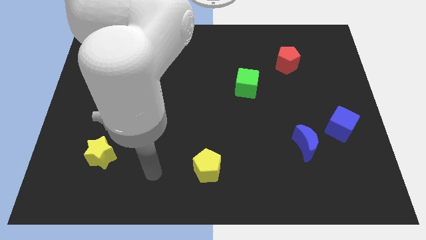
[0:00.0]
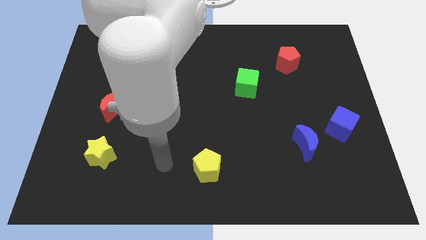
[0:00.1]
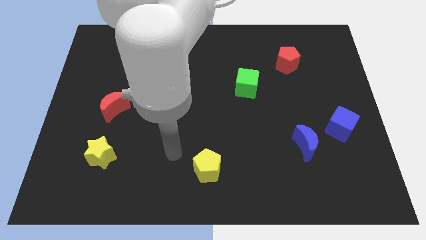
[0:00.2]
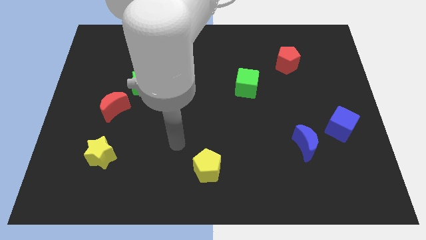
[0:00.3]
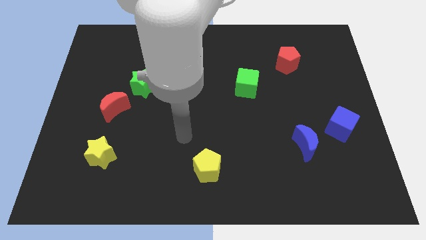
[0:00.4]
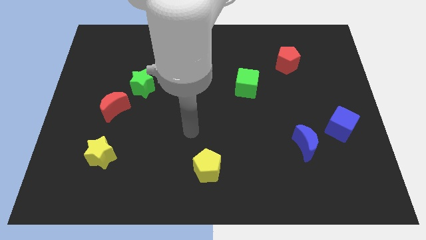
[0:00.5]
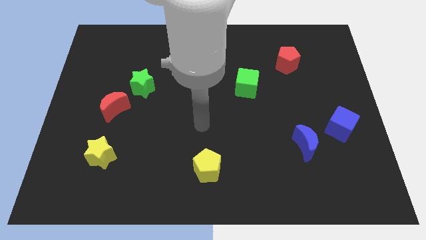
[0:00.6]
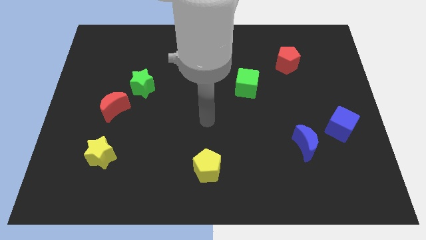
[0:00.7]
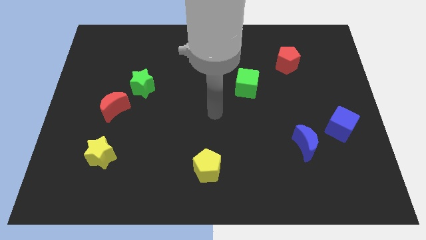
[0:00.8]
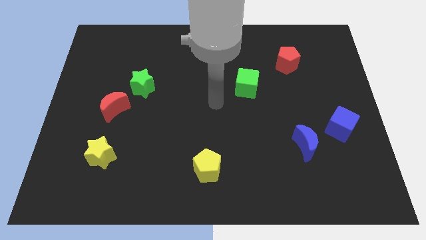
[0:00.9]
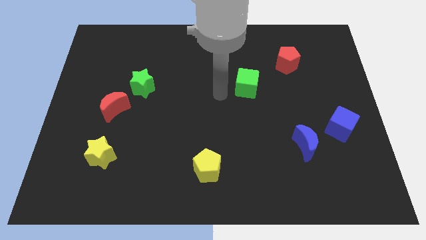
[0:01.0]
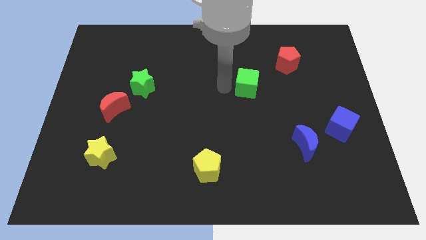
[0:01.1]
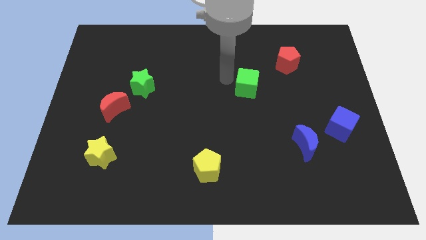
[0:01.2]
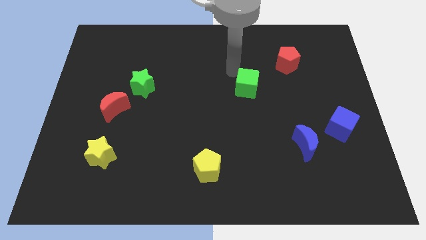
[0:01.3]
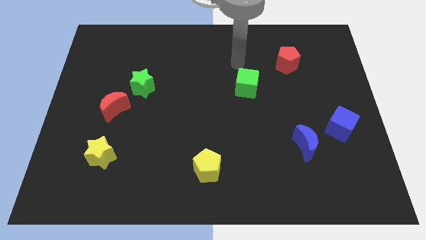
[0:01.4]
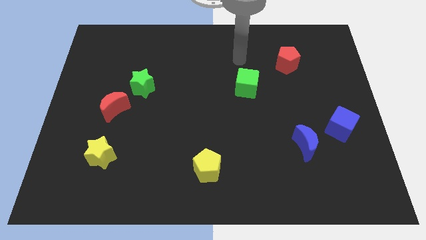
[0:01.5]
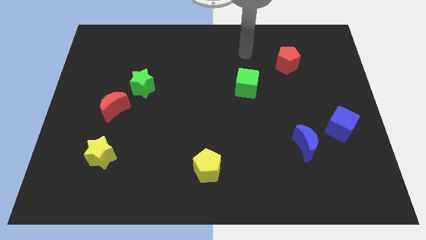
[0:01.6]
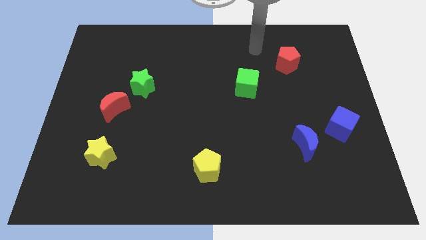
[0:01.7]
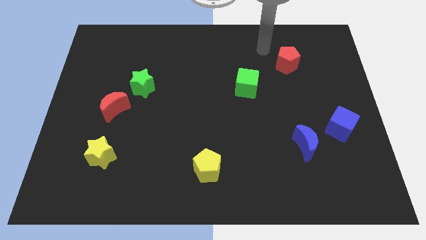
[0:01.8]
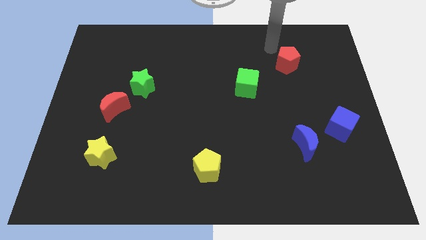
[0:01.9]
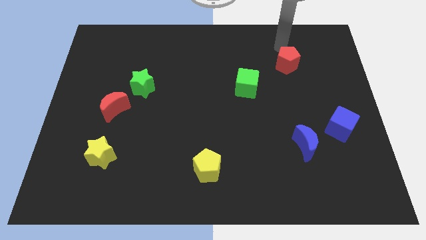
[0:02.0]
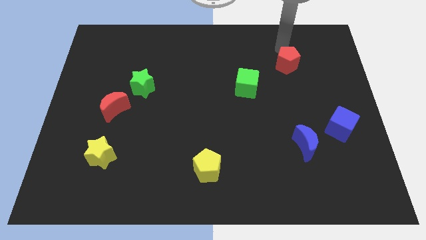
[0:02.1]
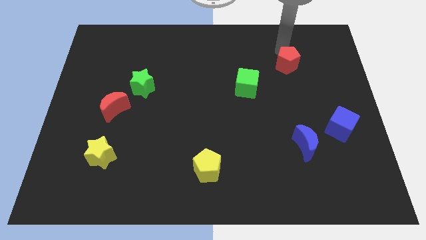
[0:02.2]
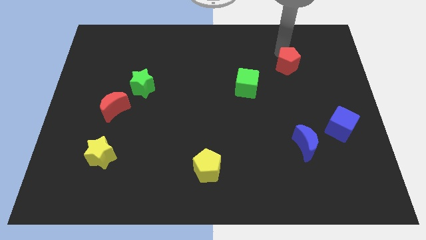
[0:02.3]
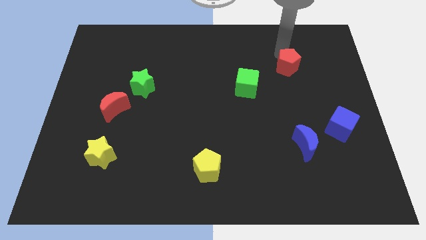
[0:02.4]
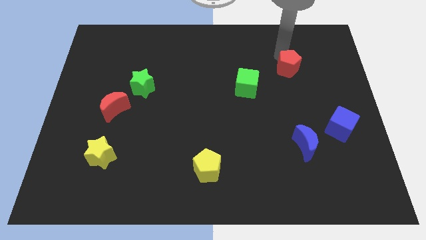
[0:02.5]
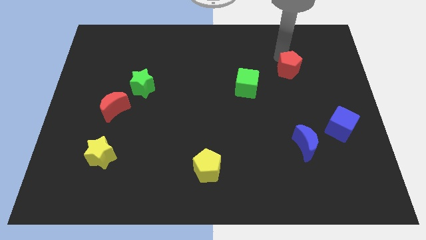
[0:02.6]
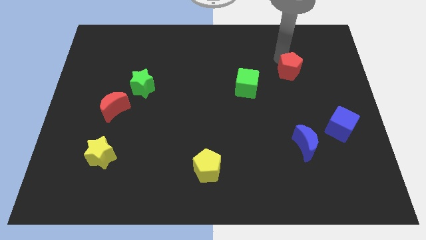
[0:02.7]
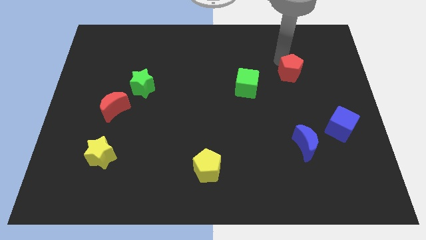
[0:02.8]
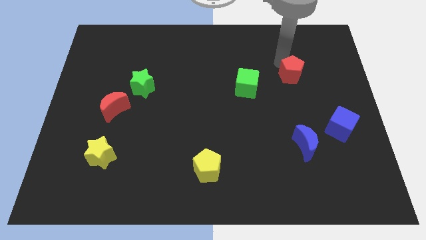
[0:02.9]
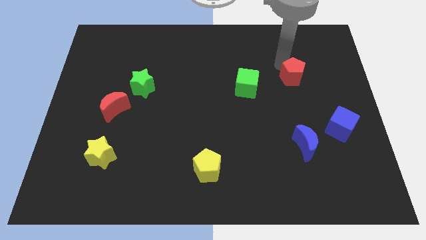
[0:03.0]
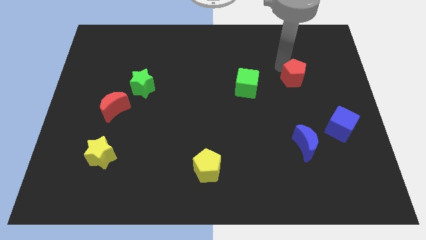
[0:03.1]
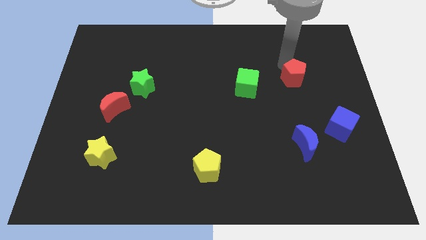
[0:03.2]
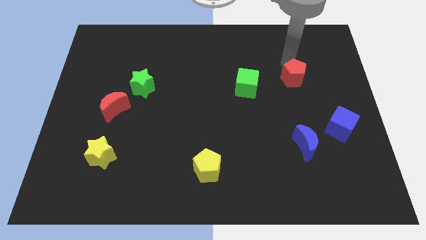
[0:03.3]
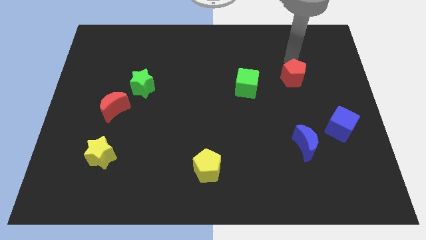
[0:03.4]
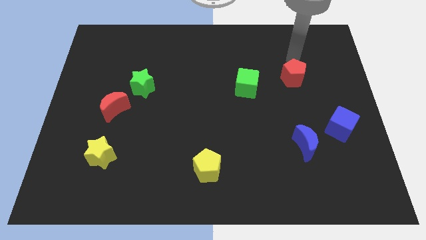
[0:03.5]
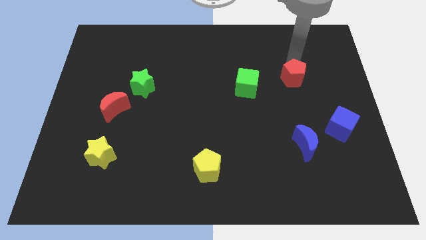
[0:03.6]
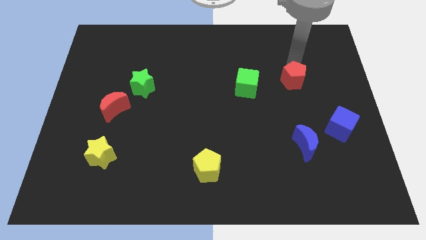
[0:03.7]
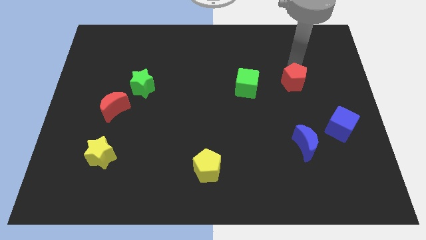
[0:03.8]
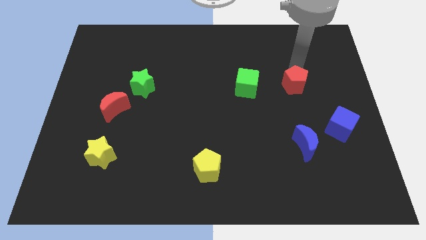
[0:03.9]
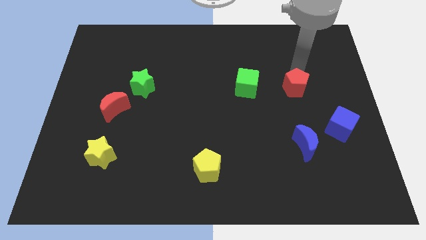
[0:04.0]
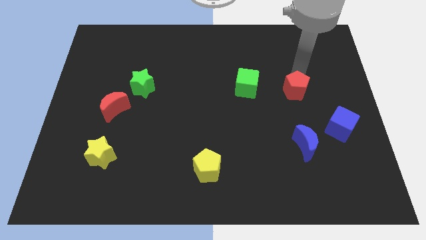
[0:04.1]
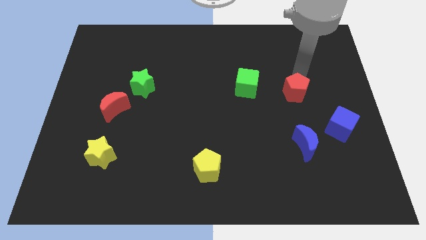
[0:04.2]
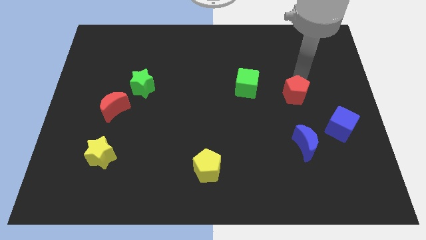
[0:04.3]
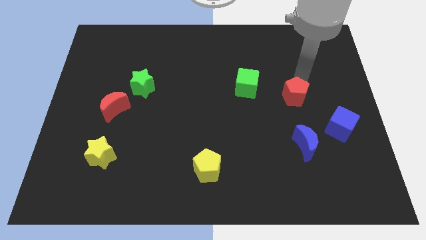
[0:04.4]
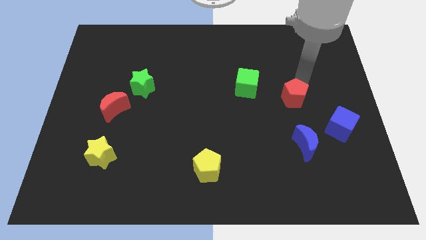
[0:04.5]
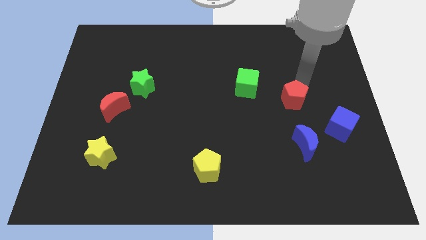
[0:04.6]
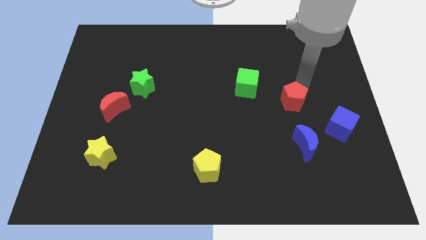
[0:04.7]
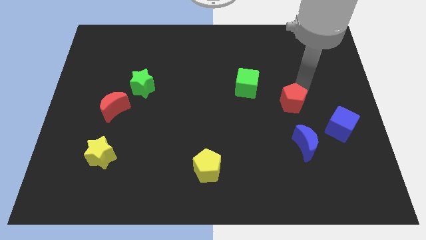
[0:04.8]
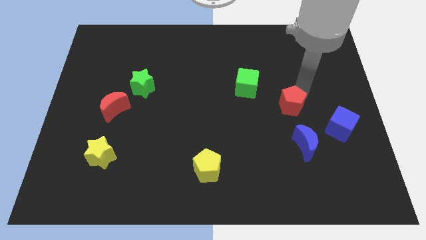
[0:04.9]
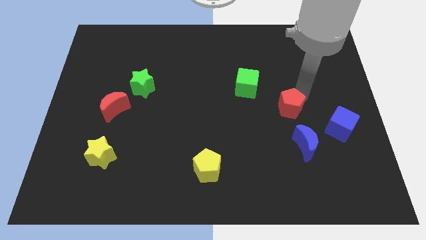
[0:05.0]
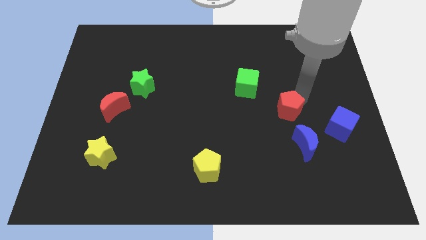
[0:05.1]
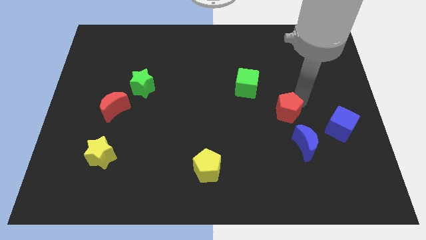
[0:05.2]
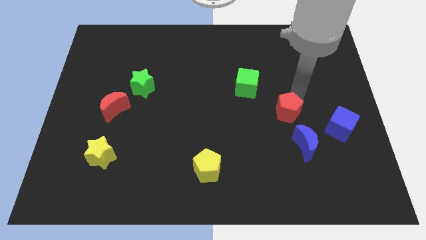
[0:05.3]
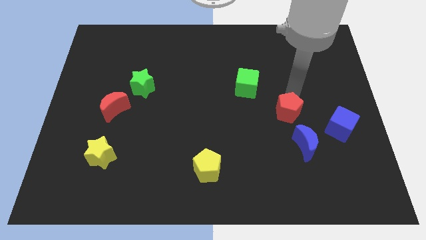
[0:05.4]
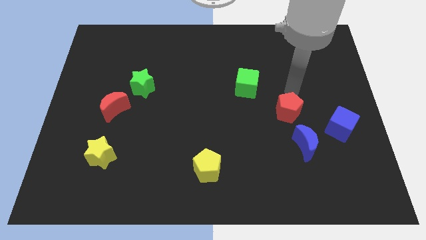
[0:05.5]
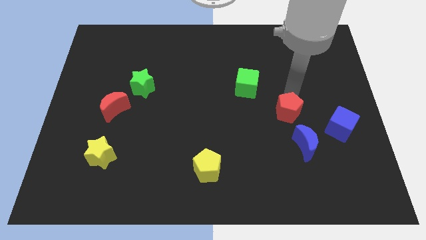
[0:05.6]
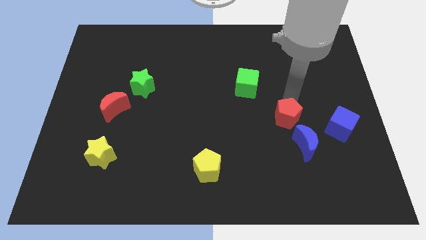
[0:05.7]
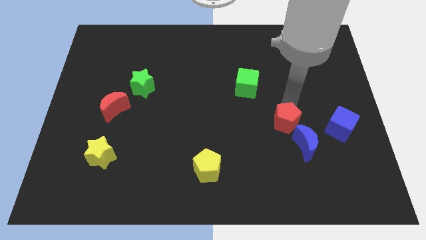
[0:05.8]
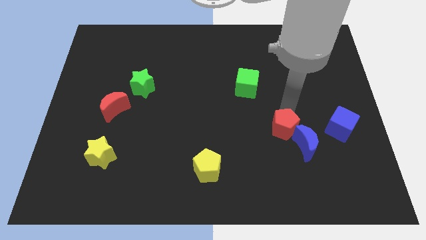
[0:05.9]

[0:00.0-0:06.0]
push the red pentagon down

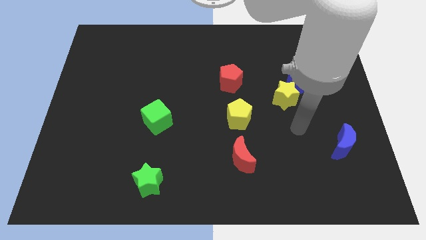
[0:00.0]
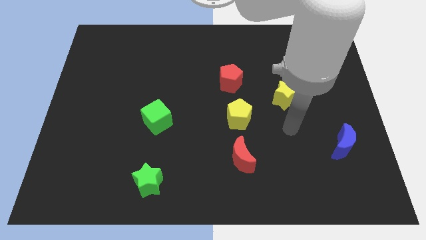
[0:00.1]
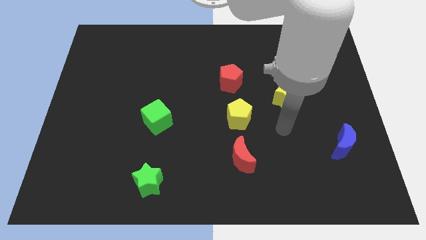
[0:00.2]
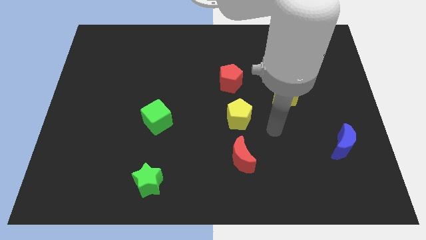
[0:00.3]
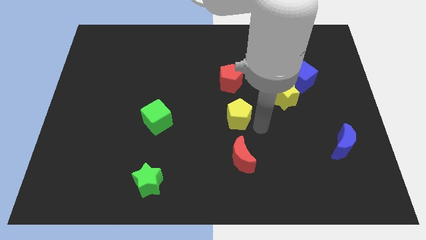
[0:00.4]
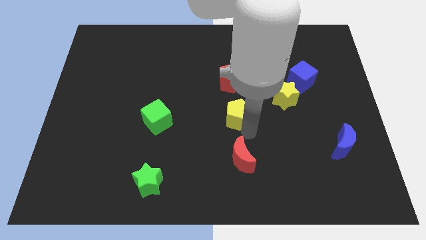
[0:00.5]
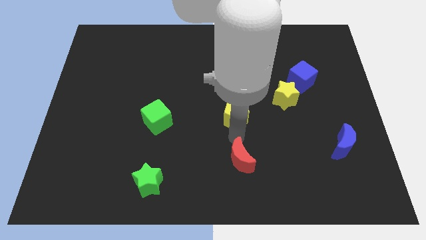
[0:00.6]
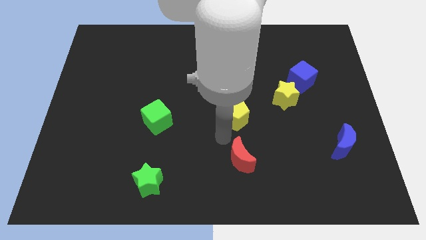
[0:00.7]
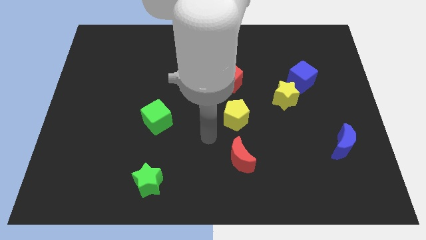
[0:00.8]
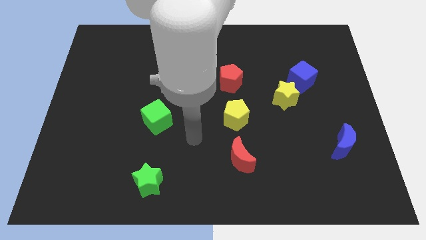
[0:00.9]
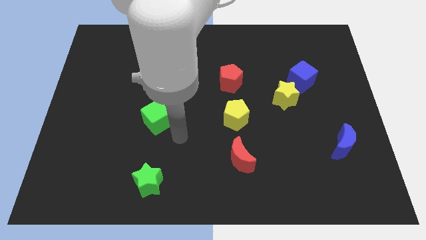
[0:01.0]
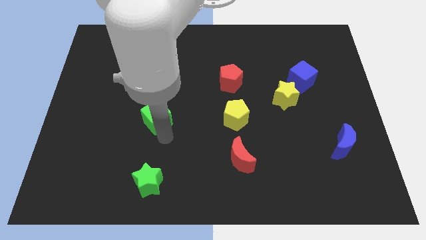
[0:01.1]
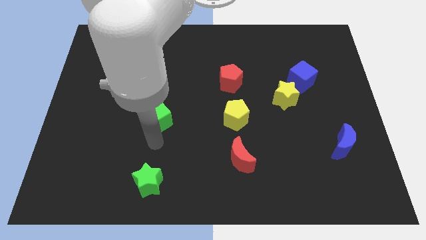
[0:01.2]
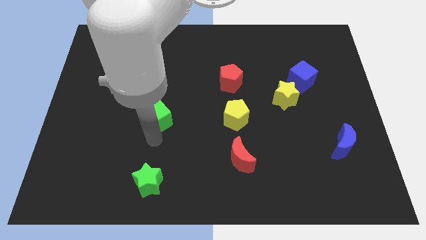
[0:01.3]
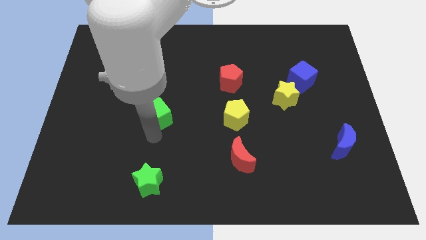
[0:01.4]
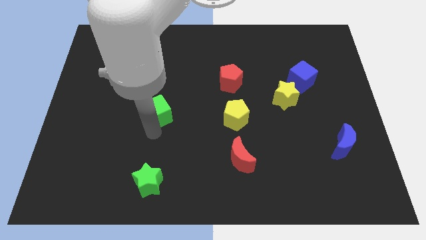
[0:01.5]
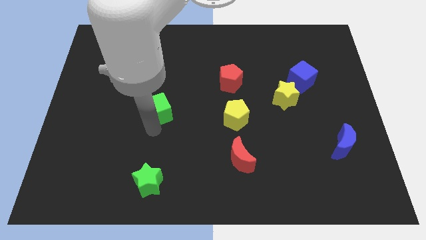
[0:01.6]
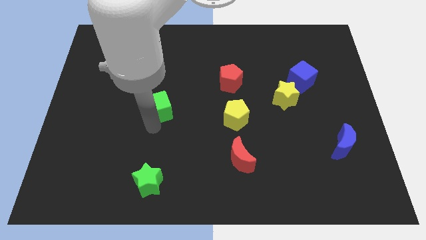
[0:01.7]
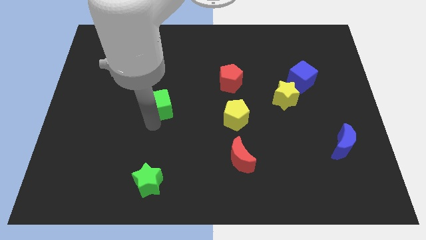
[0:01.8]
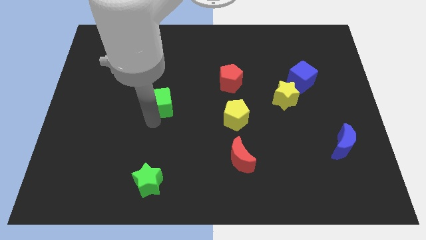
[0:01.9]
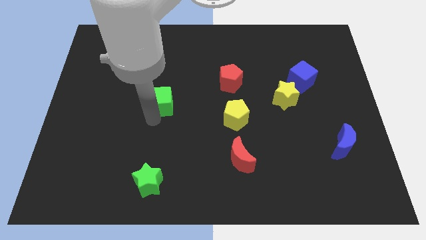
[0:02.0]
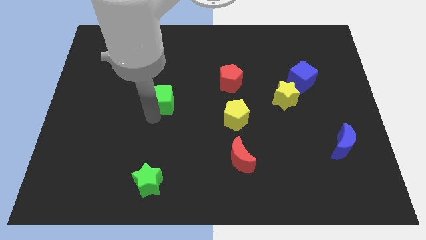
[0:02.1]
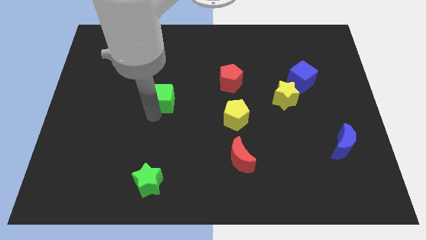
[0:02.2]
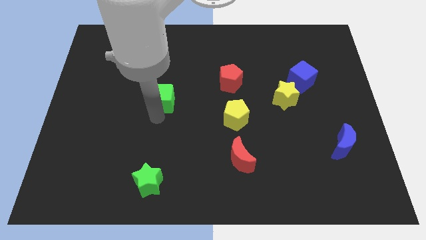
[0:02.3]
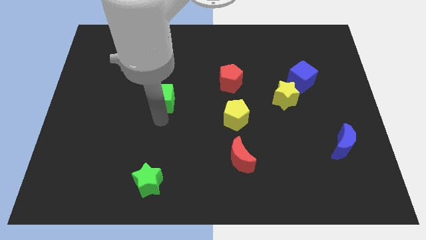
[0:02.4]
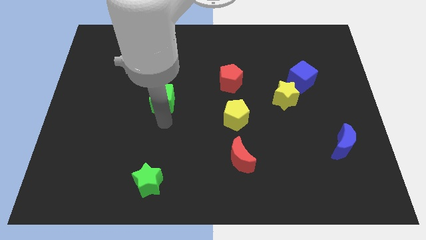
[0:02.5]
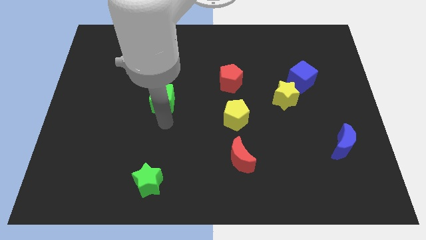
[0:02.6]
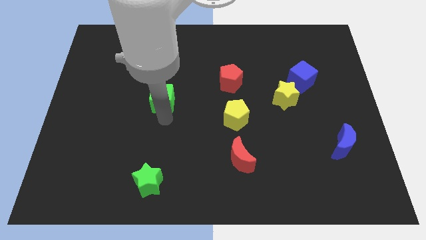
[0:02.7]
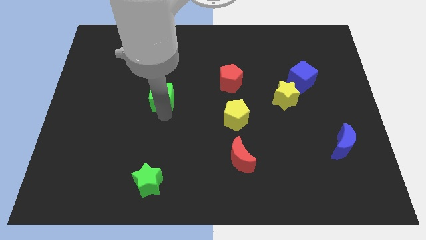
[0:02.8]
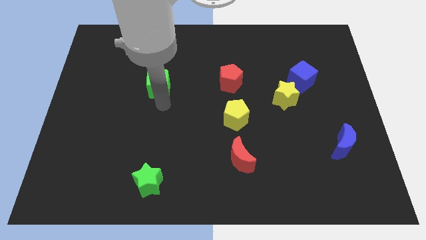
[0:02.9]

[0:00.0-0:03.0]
slide the green cube slightly upwards
